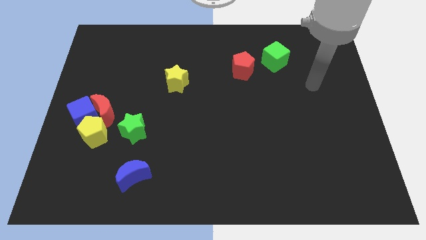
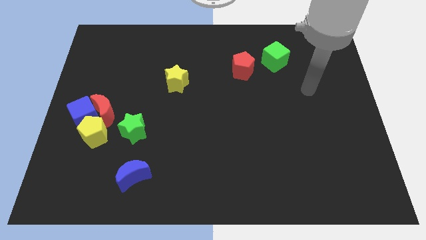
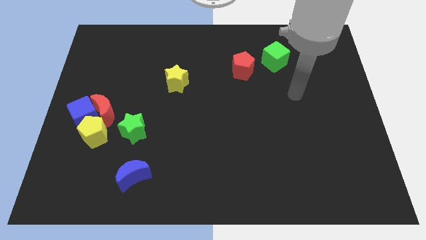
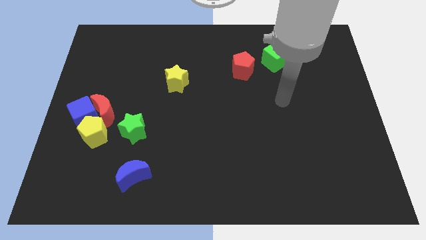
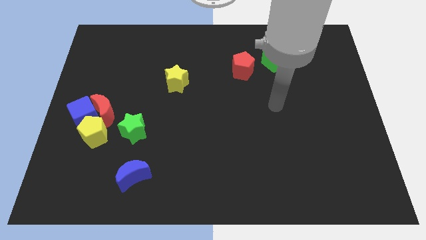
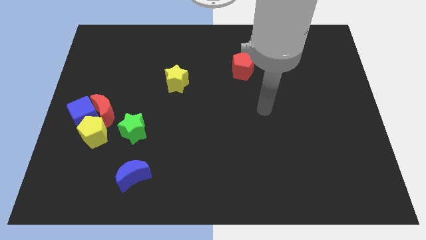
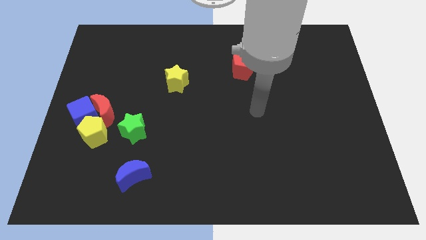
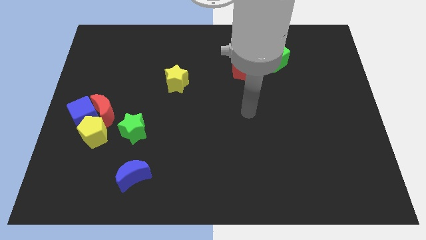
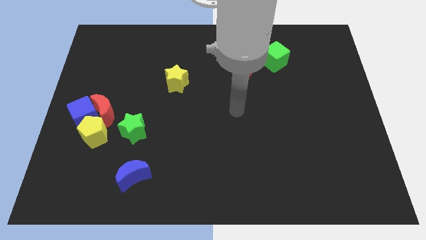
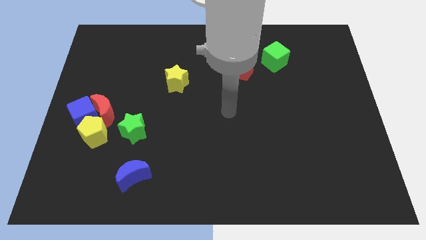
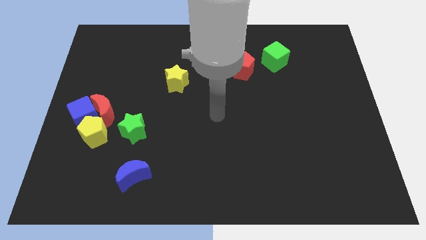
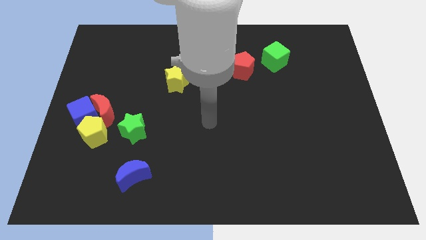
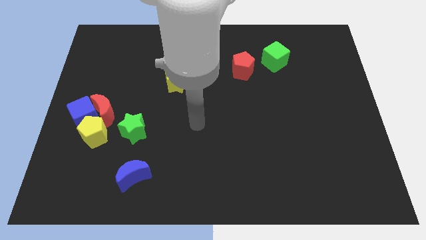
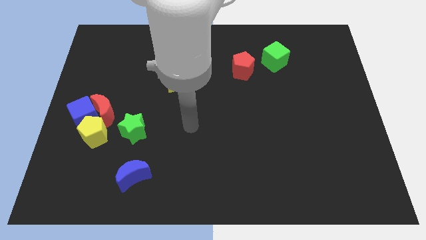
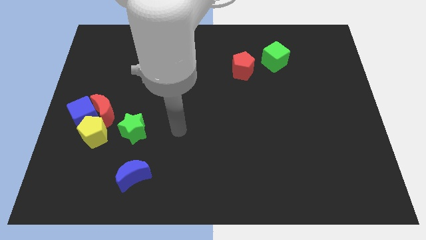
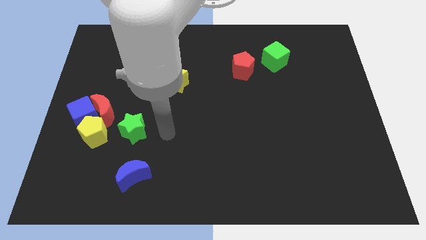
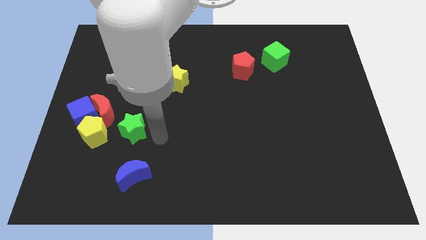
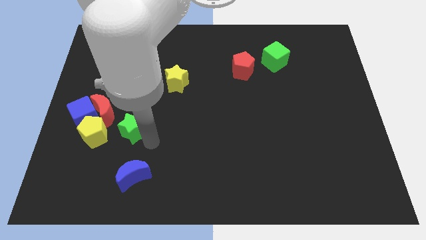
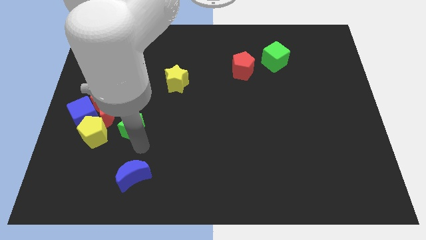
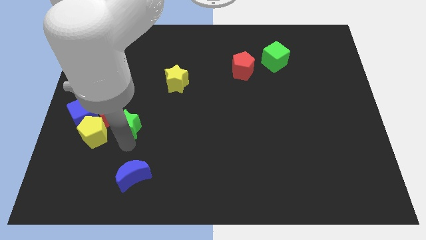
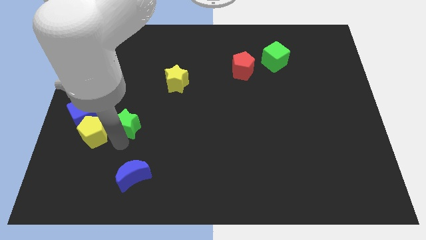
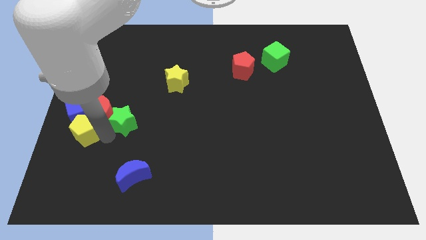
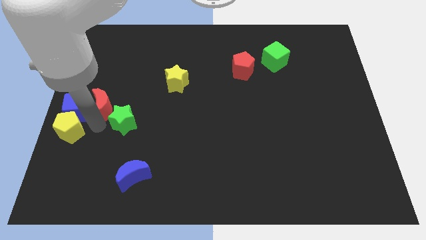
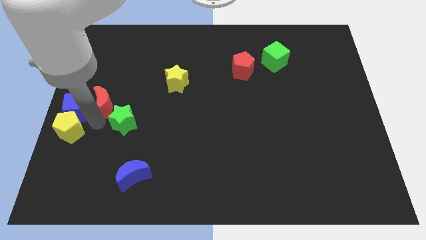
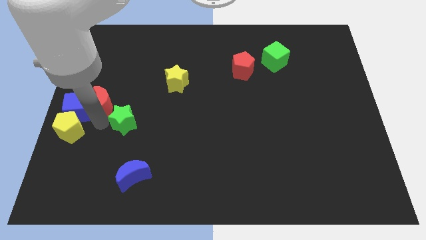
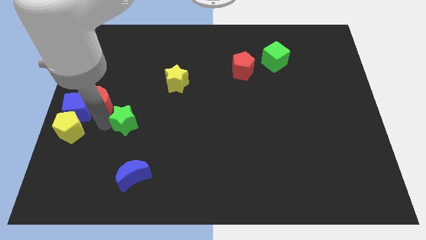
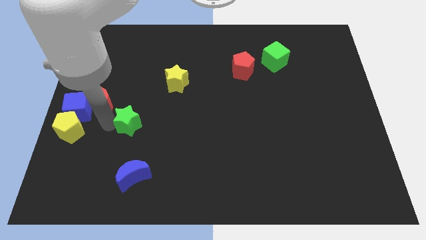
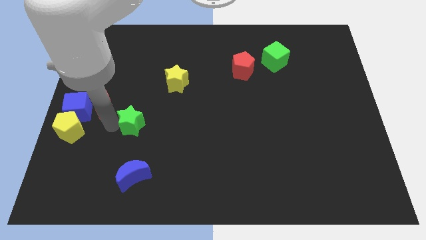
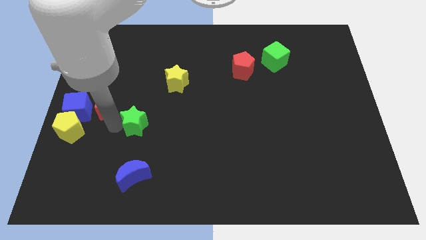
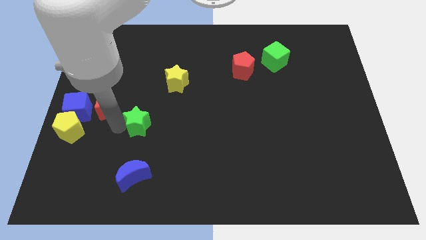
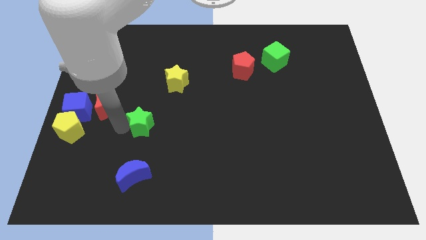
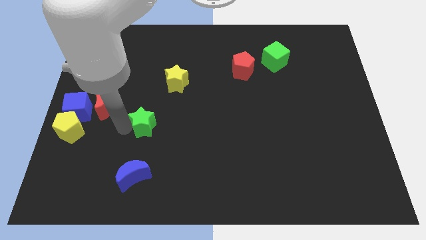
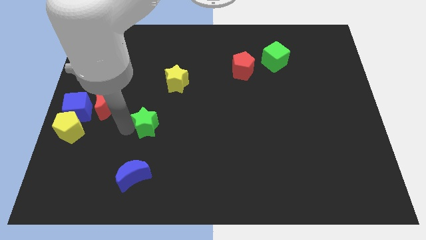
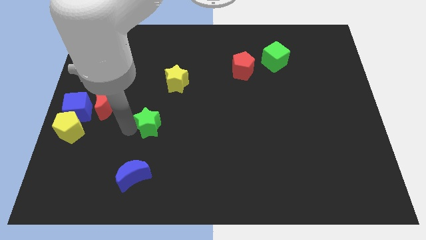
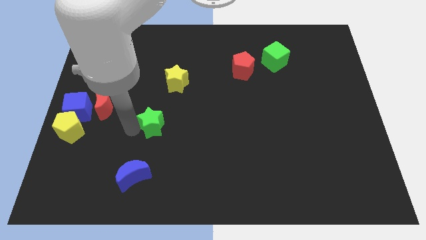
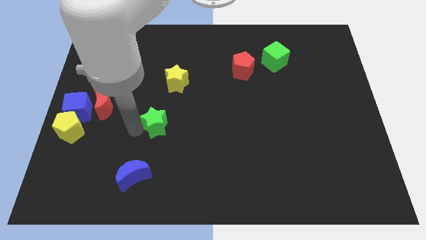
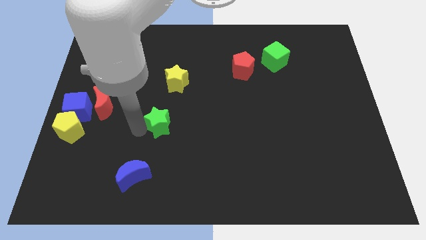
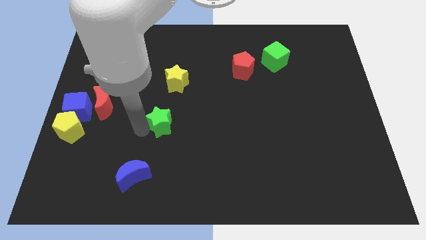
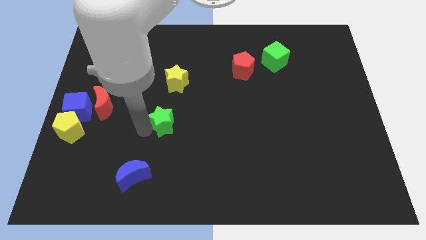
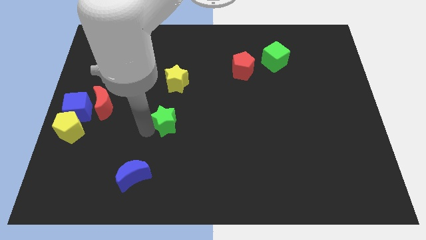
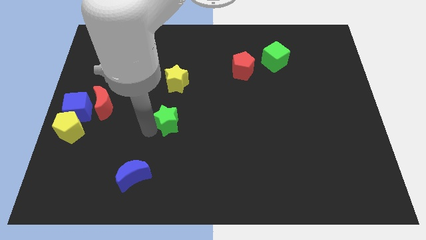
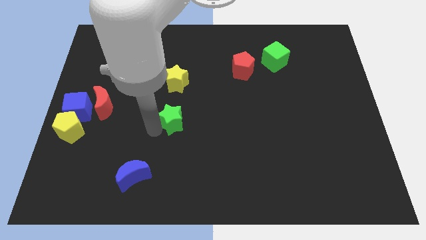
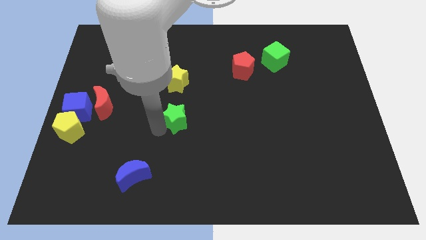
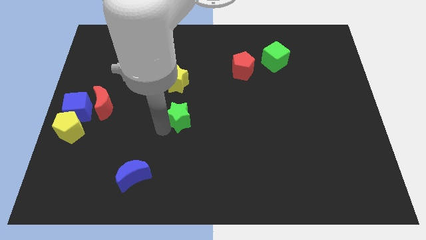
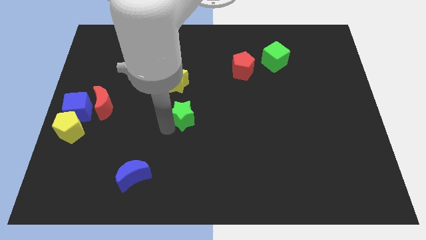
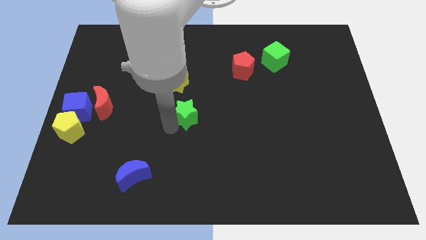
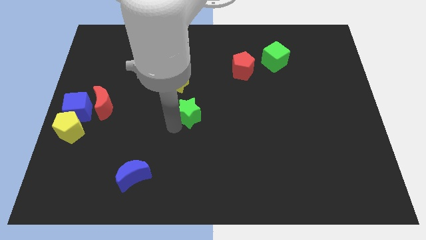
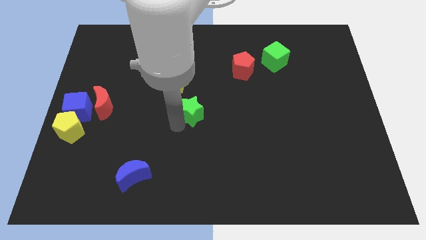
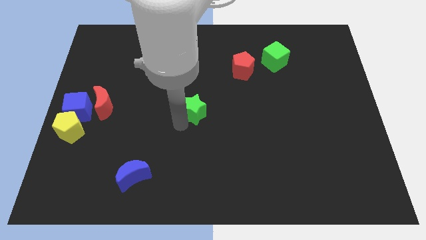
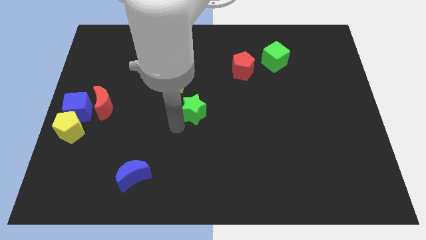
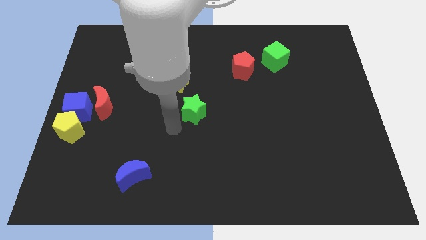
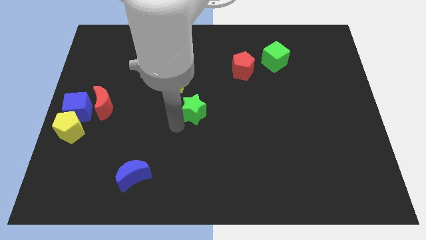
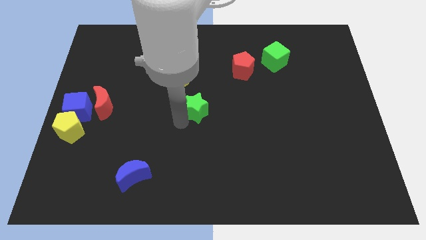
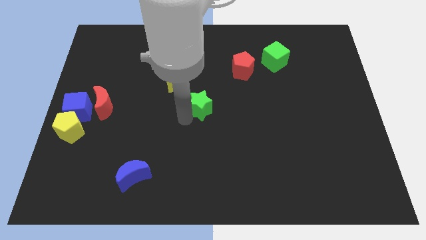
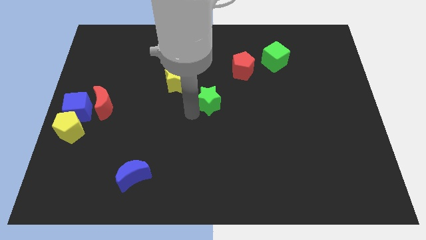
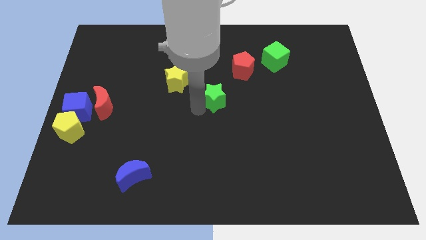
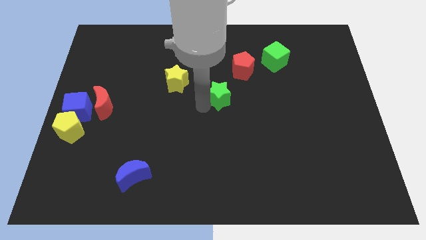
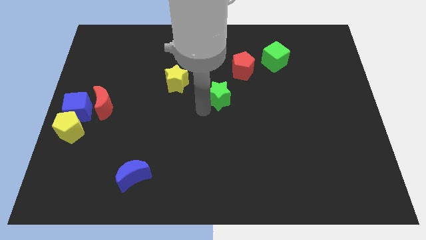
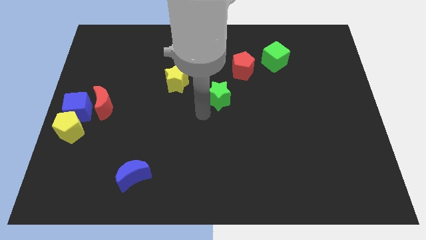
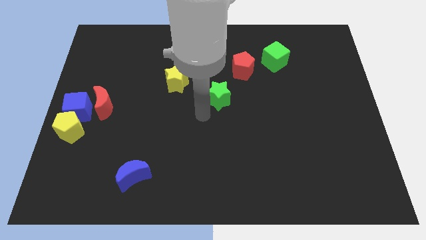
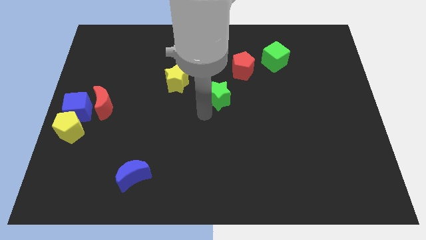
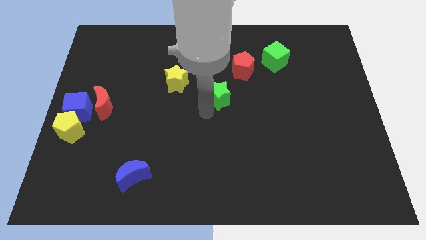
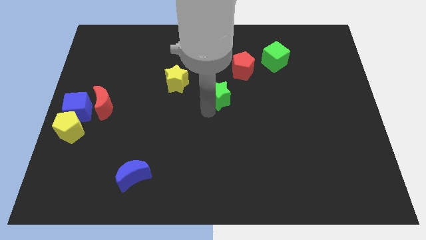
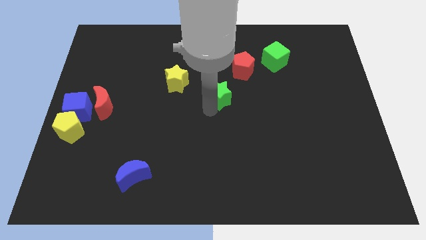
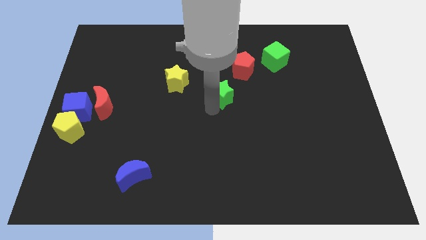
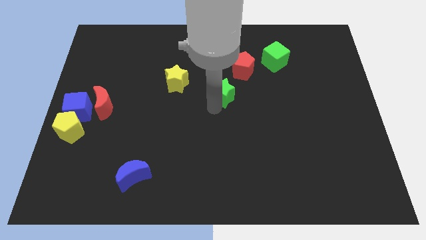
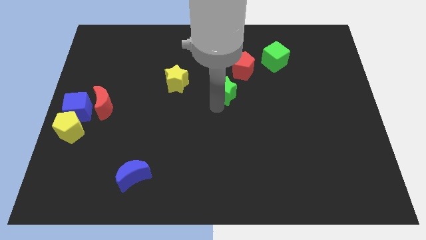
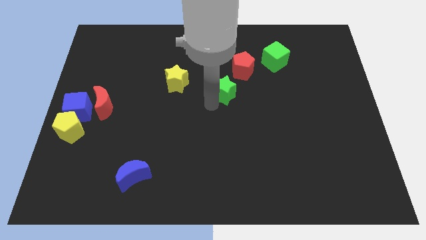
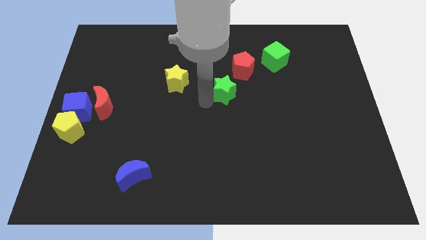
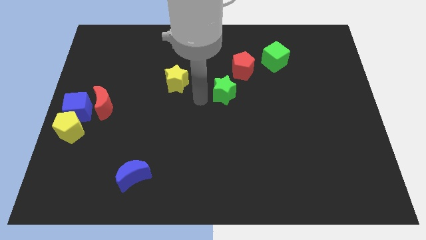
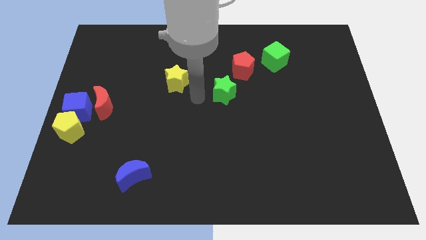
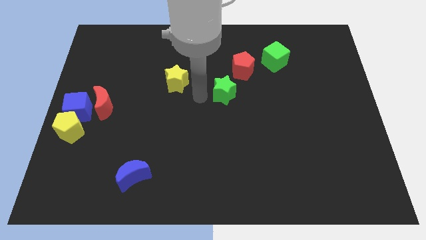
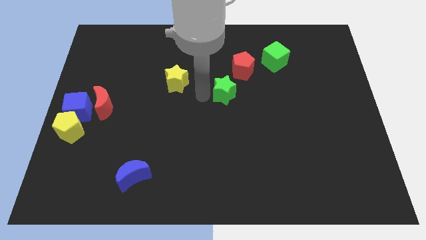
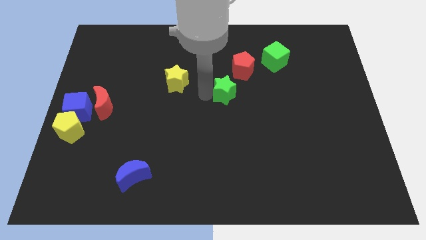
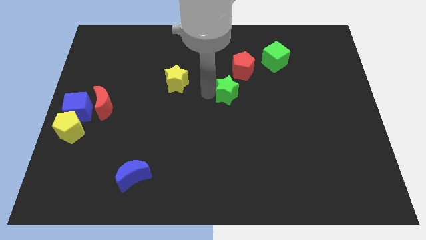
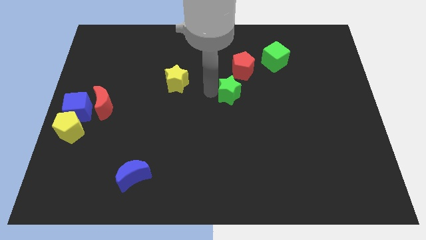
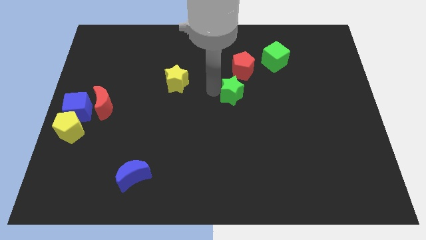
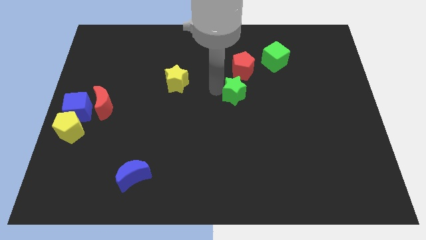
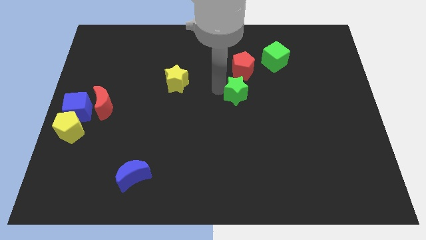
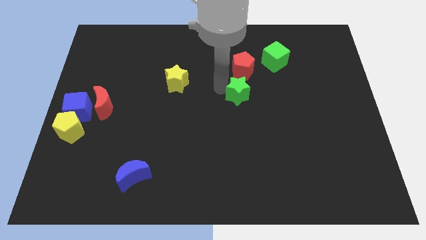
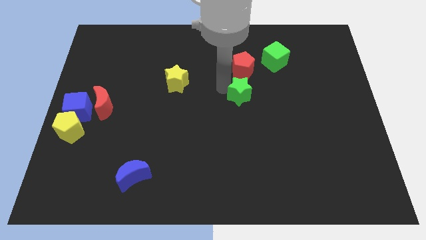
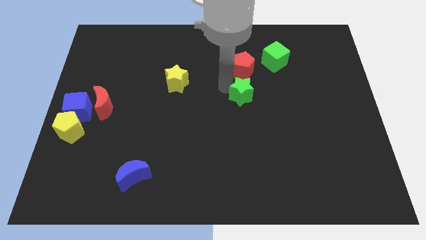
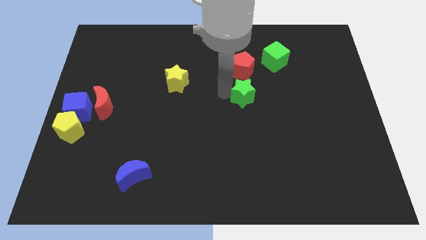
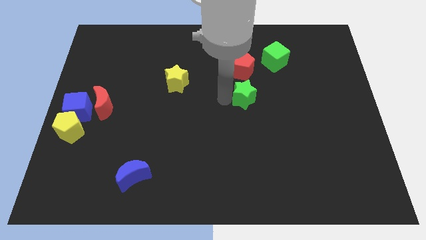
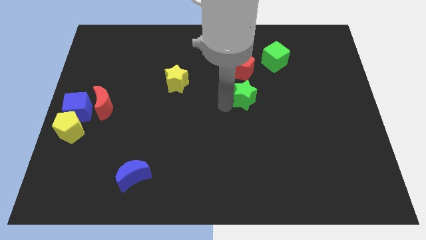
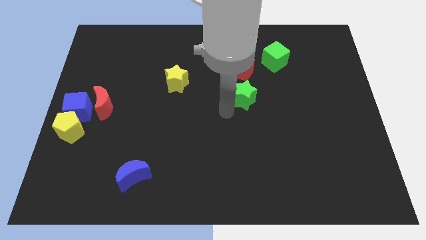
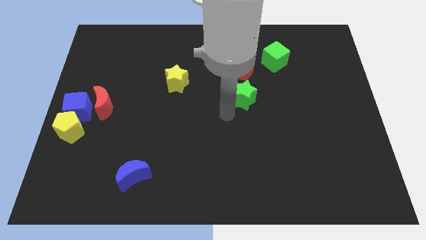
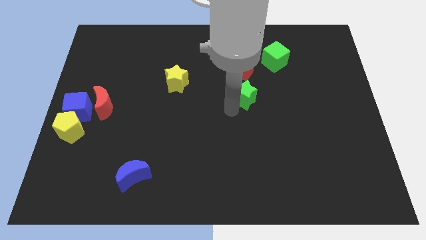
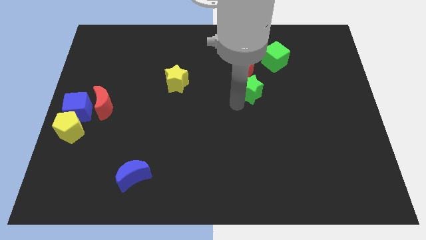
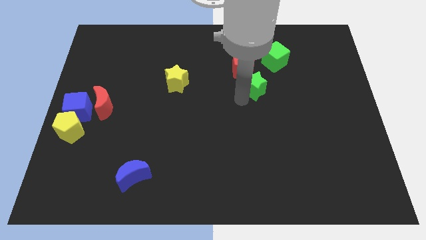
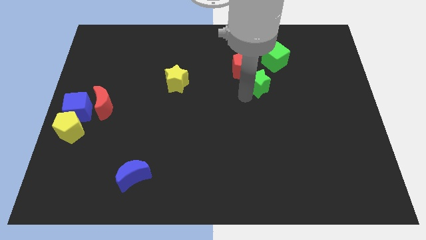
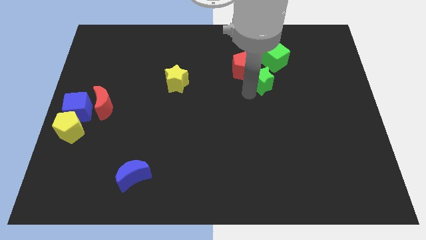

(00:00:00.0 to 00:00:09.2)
push the green star just right of the red pentagon
